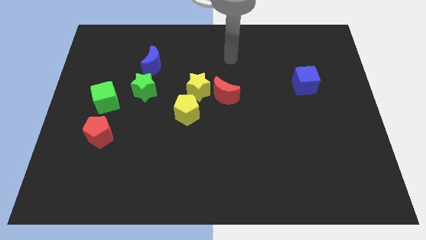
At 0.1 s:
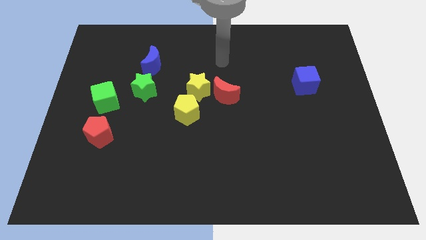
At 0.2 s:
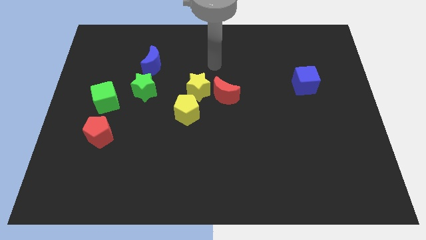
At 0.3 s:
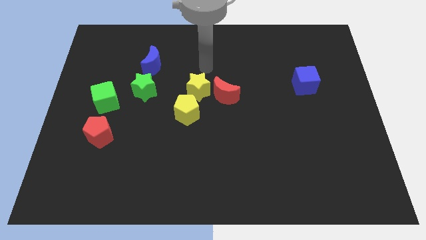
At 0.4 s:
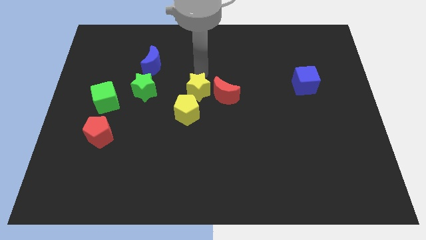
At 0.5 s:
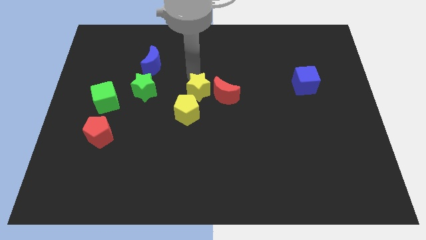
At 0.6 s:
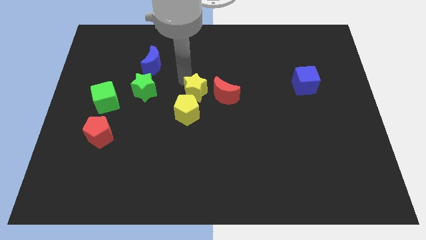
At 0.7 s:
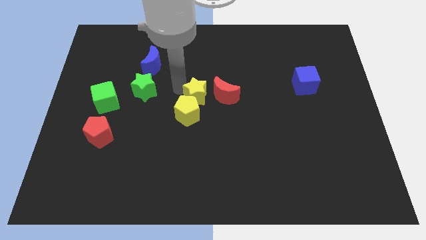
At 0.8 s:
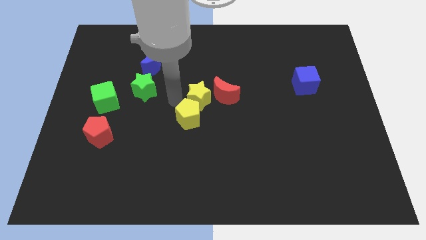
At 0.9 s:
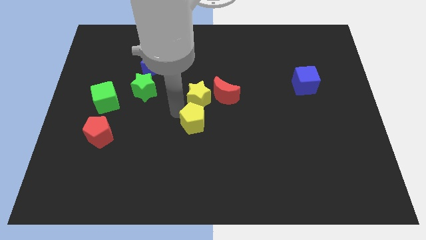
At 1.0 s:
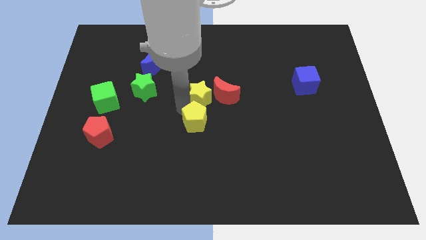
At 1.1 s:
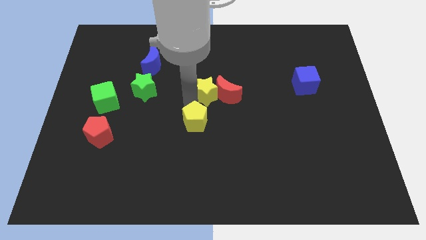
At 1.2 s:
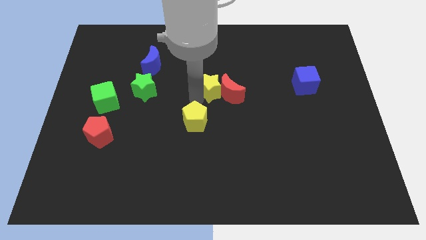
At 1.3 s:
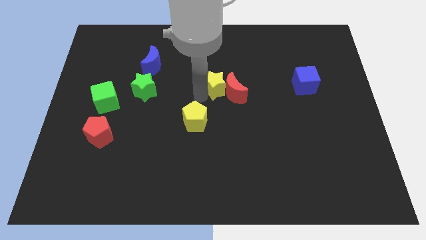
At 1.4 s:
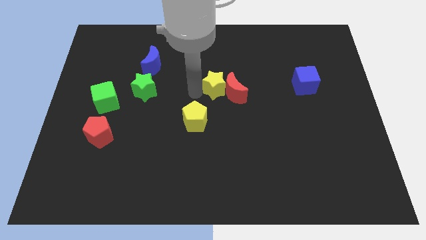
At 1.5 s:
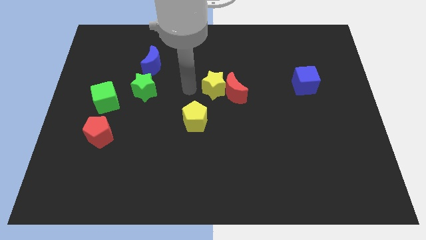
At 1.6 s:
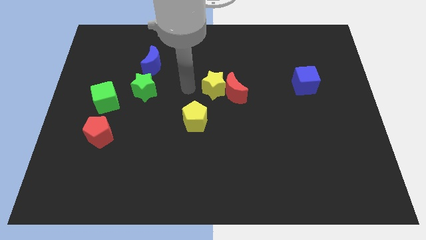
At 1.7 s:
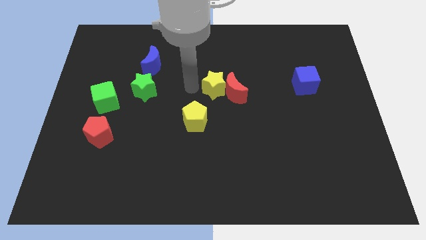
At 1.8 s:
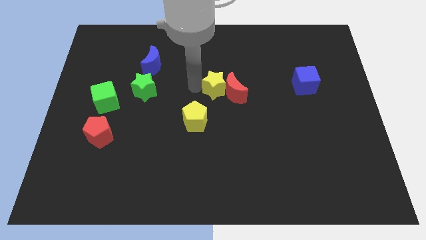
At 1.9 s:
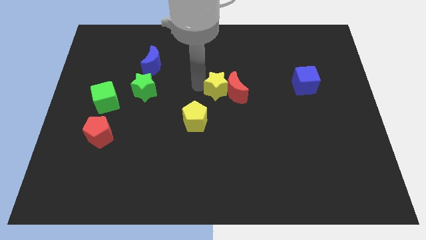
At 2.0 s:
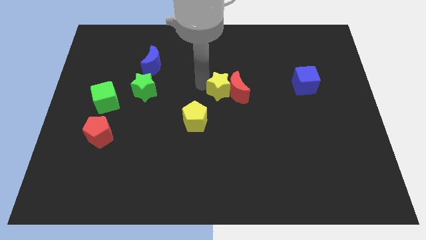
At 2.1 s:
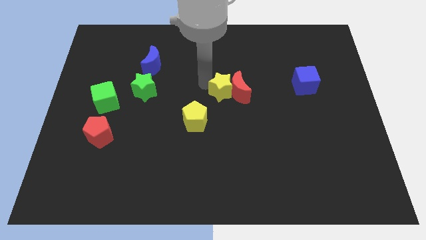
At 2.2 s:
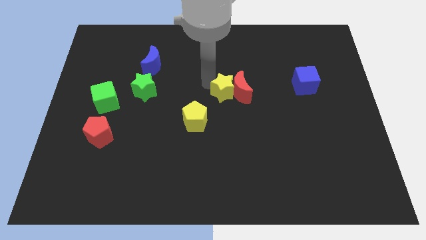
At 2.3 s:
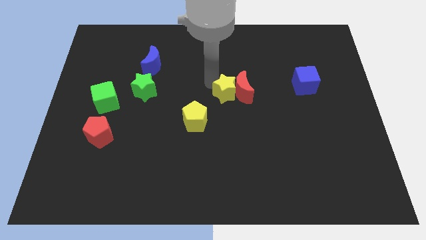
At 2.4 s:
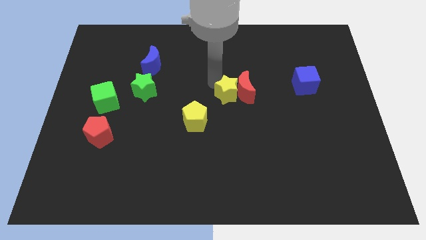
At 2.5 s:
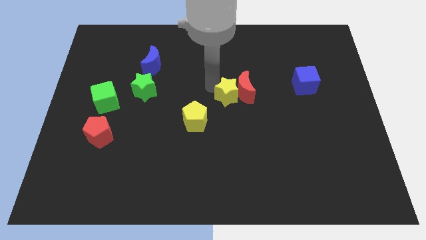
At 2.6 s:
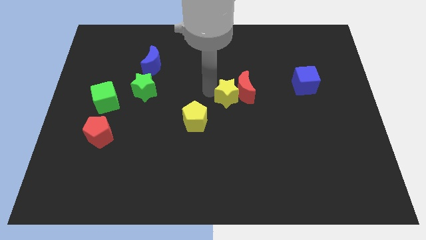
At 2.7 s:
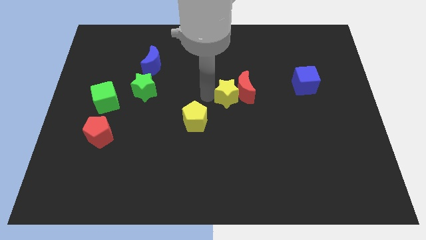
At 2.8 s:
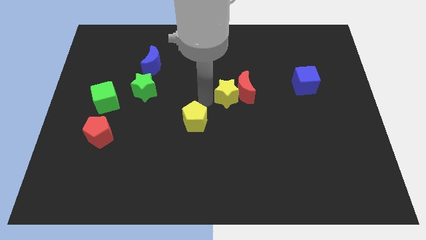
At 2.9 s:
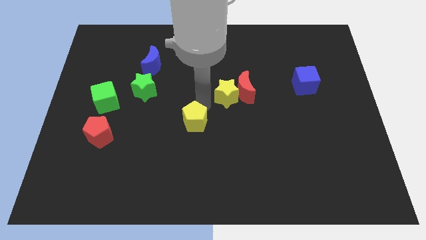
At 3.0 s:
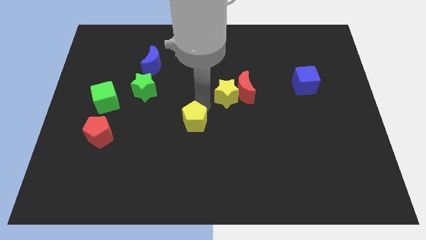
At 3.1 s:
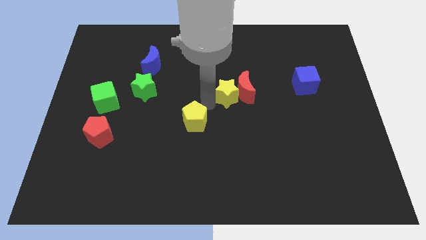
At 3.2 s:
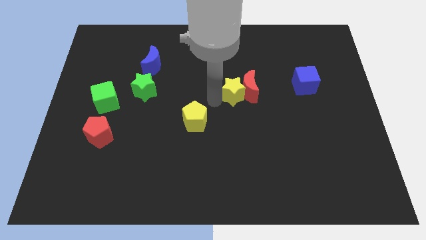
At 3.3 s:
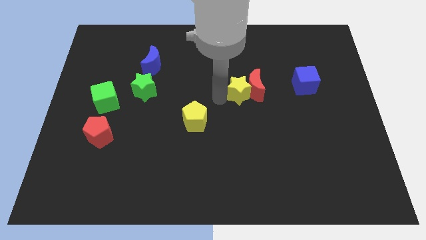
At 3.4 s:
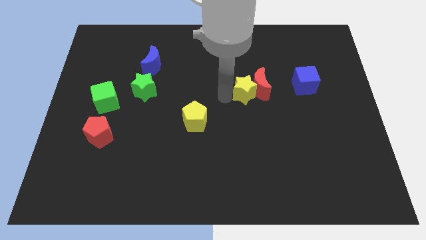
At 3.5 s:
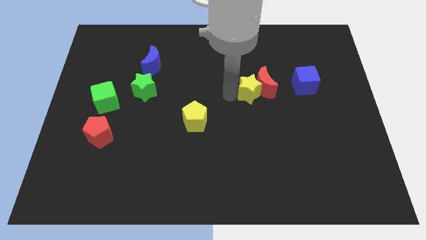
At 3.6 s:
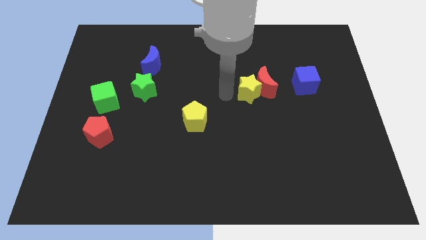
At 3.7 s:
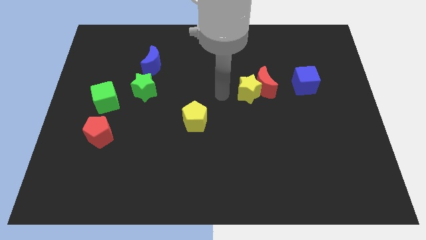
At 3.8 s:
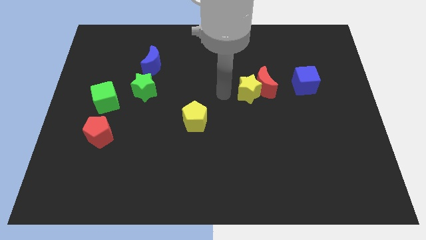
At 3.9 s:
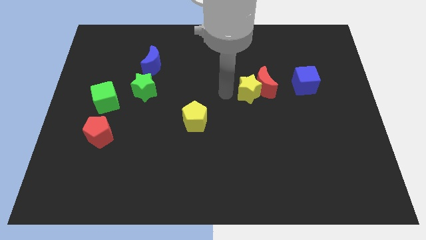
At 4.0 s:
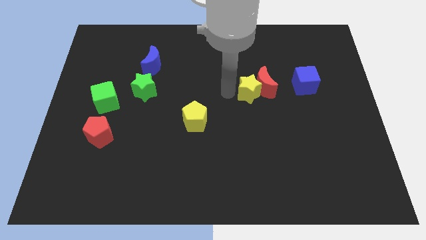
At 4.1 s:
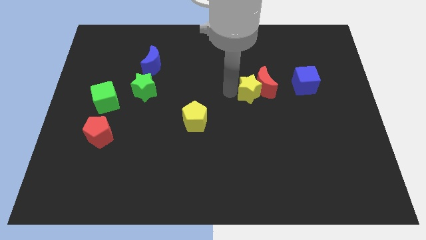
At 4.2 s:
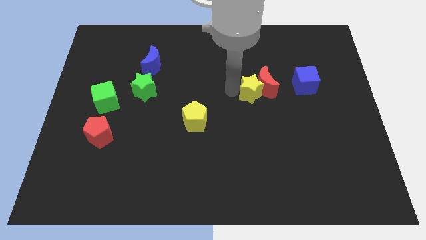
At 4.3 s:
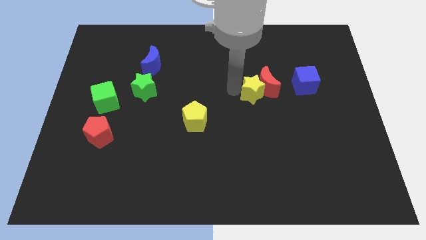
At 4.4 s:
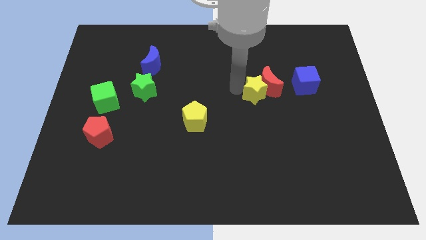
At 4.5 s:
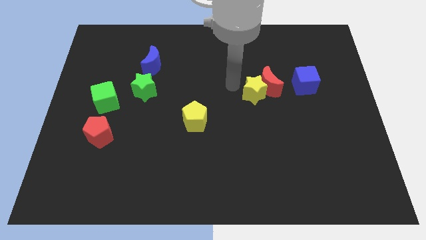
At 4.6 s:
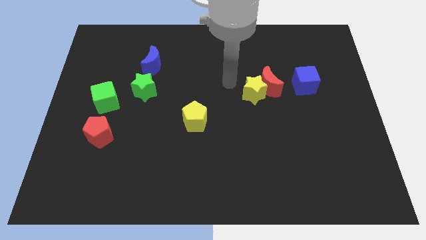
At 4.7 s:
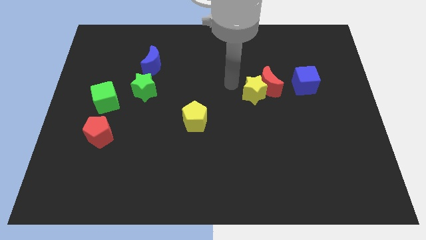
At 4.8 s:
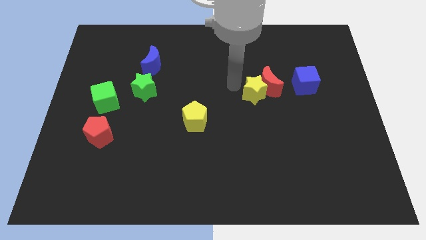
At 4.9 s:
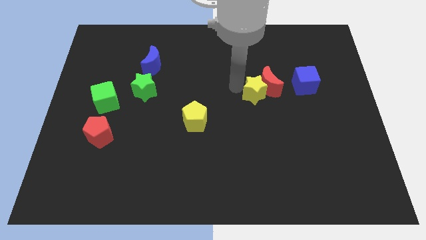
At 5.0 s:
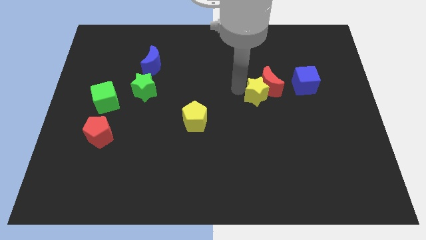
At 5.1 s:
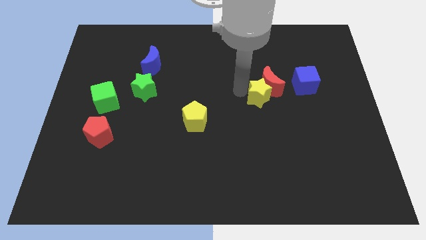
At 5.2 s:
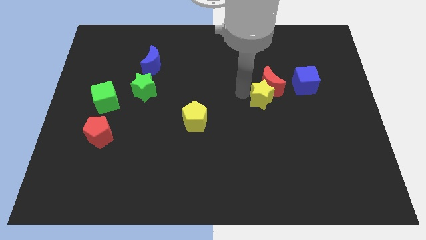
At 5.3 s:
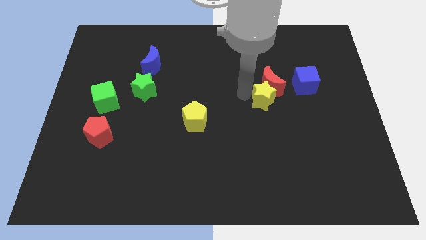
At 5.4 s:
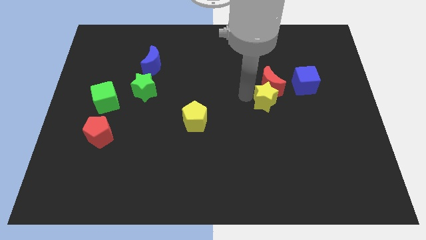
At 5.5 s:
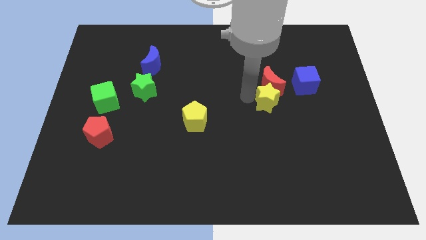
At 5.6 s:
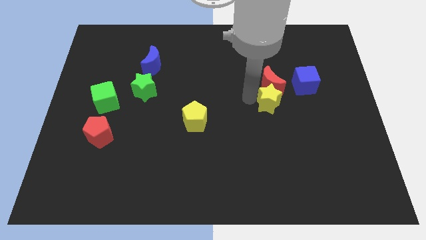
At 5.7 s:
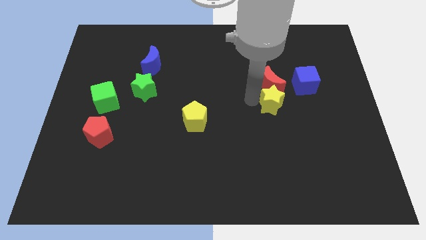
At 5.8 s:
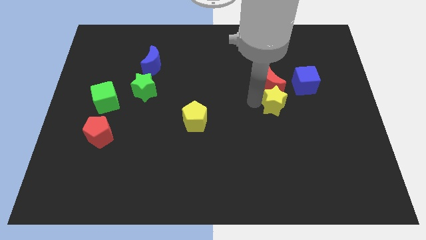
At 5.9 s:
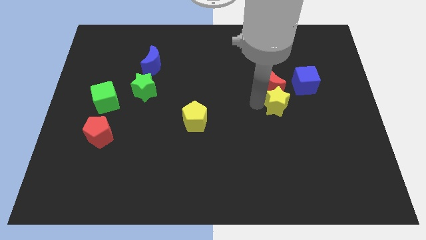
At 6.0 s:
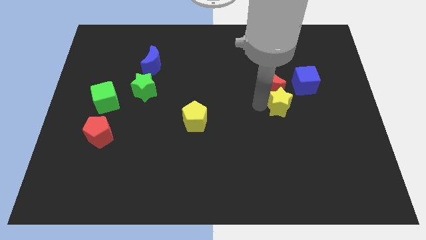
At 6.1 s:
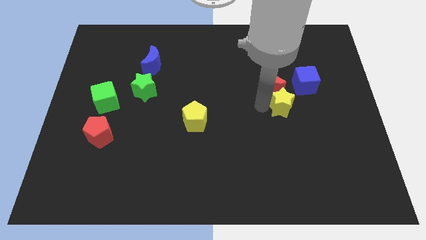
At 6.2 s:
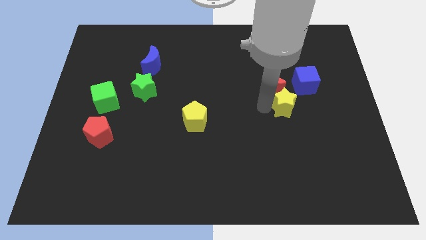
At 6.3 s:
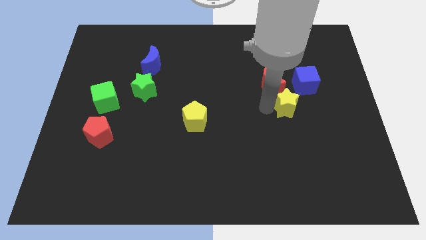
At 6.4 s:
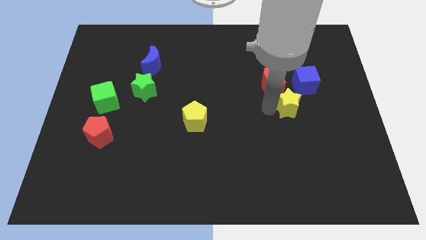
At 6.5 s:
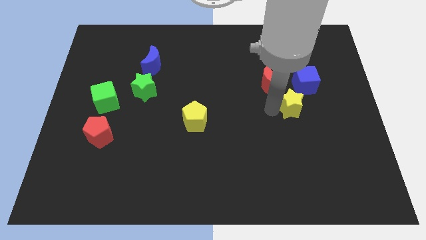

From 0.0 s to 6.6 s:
push the yellow star to the bottom side of the blue cube
